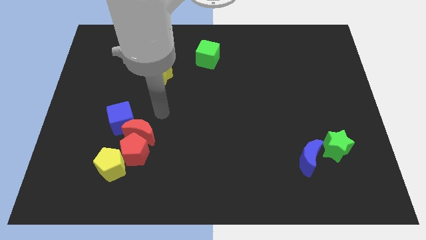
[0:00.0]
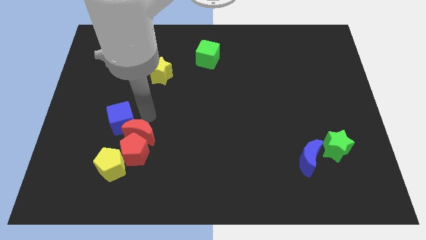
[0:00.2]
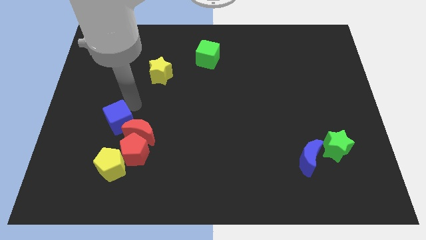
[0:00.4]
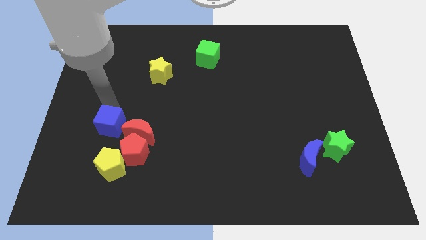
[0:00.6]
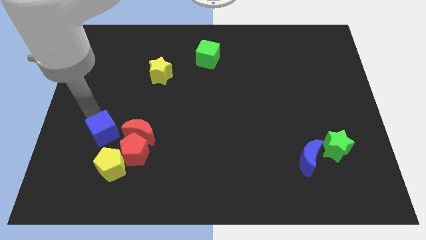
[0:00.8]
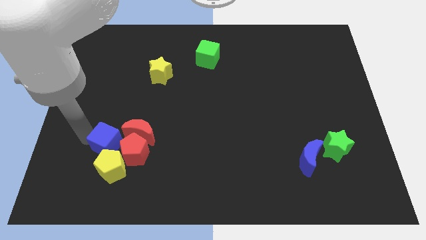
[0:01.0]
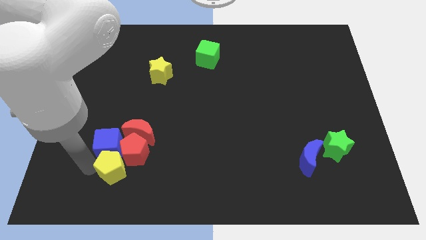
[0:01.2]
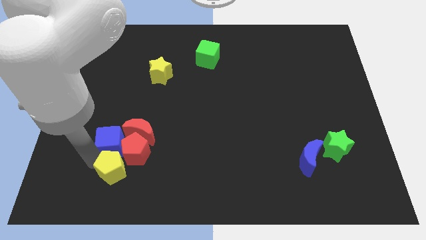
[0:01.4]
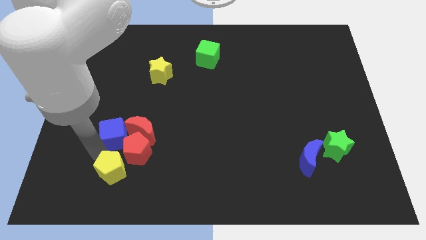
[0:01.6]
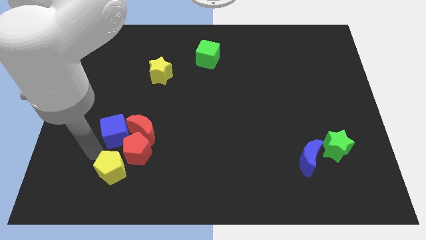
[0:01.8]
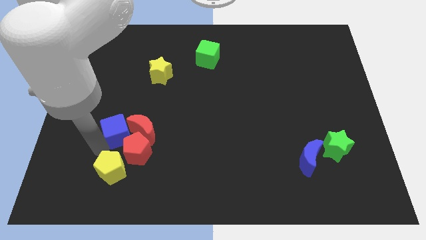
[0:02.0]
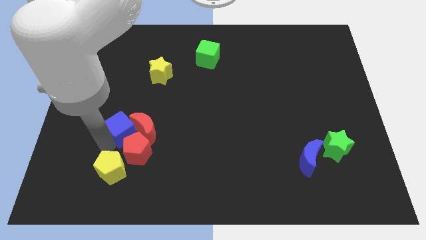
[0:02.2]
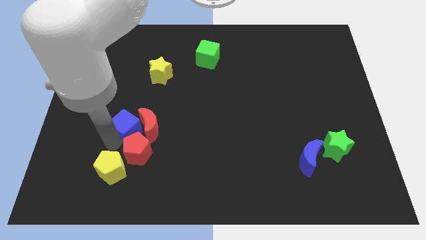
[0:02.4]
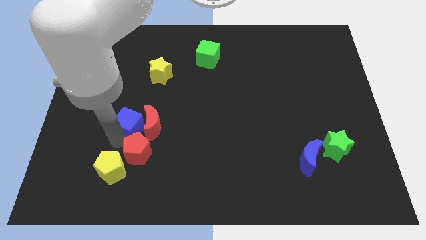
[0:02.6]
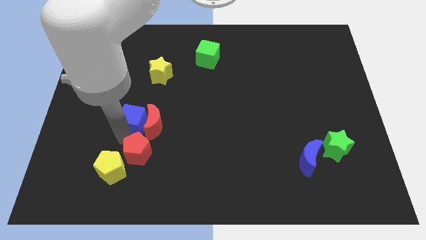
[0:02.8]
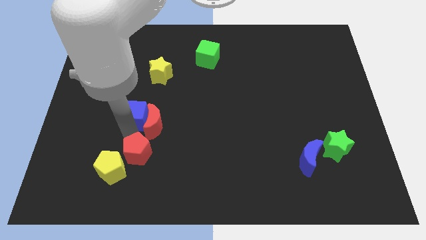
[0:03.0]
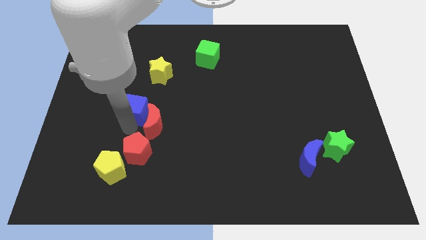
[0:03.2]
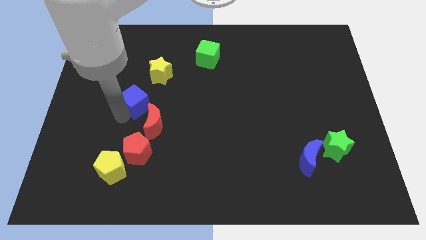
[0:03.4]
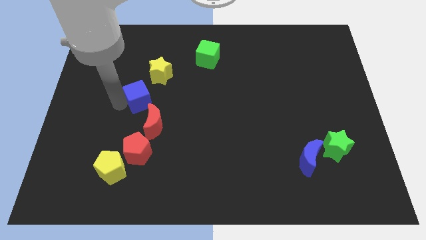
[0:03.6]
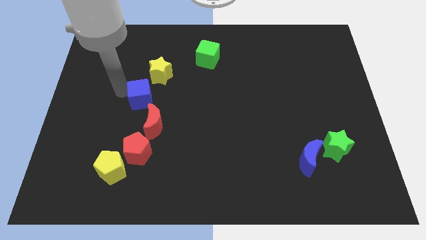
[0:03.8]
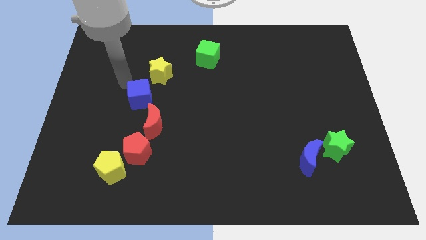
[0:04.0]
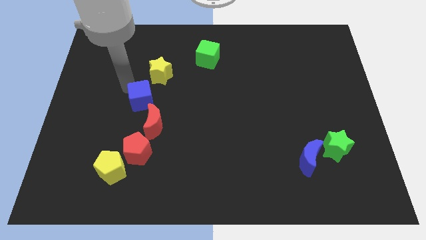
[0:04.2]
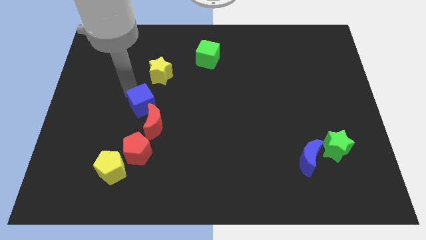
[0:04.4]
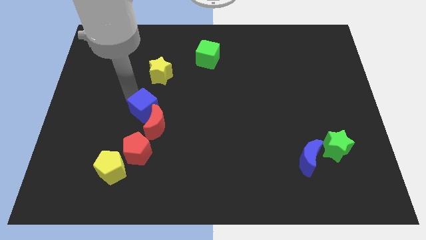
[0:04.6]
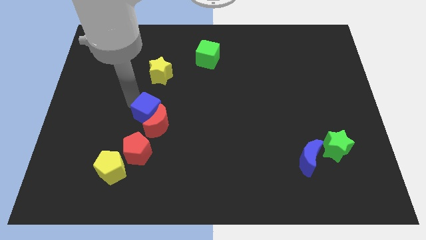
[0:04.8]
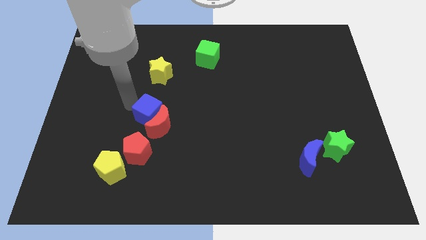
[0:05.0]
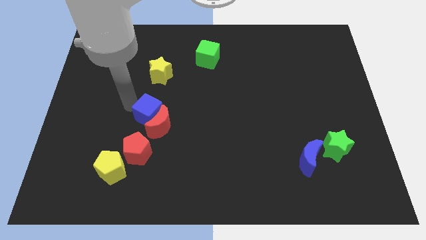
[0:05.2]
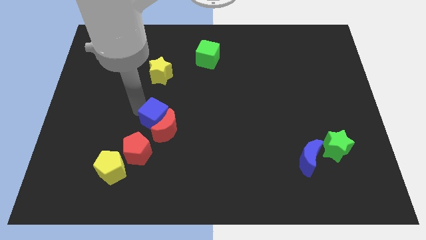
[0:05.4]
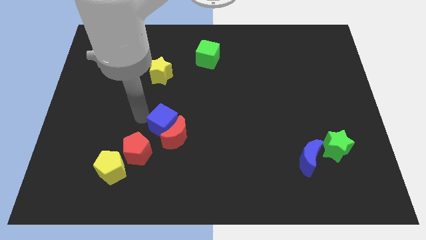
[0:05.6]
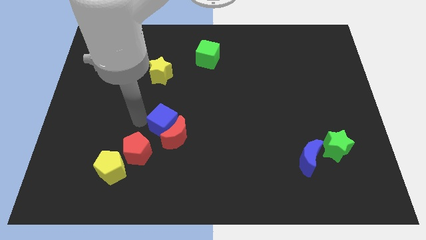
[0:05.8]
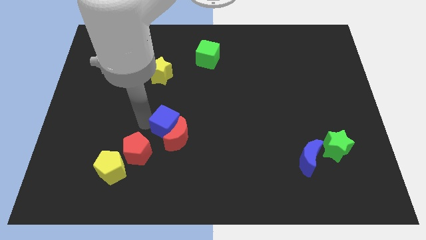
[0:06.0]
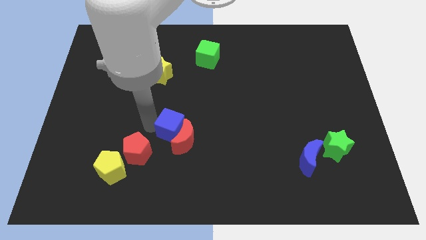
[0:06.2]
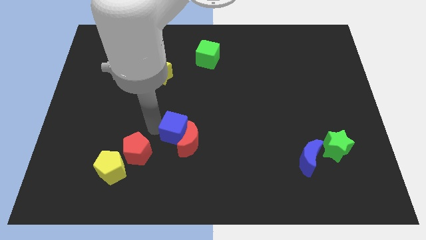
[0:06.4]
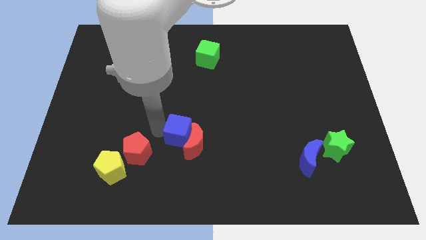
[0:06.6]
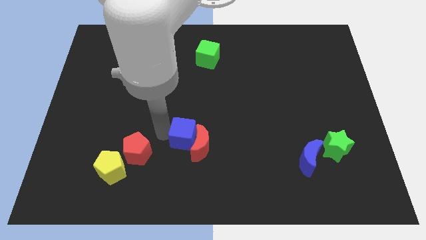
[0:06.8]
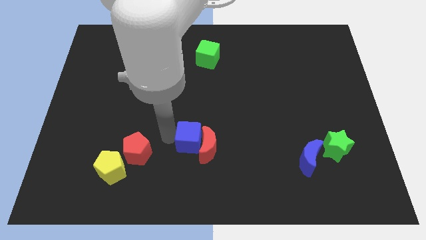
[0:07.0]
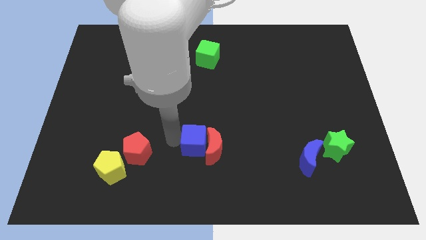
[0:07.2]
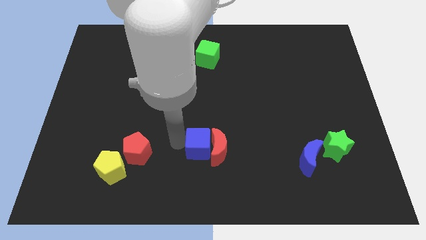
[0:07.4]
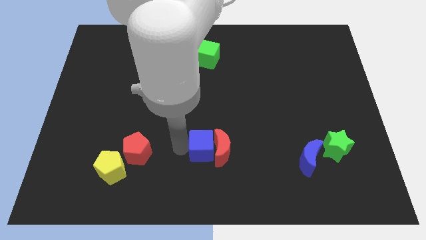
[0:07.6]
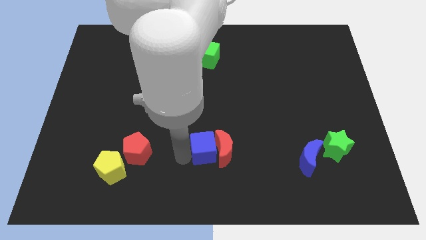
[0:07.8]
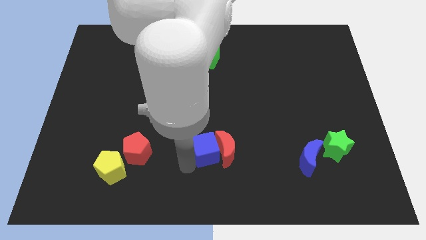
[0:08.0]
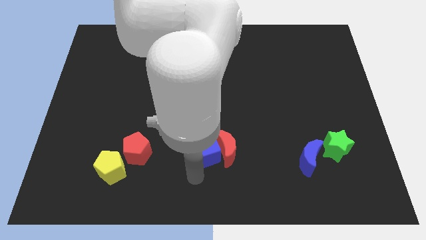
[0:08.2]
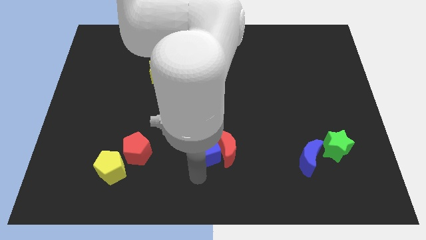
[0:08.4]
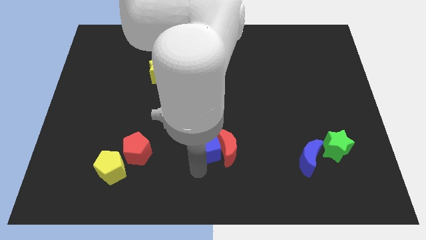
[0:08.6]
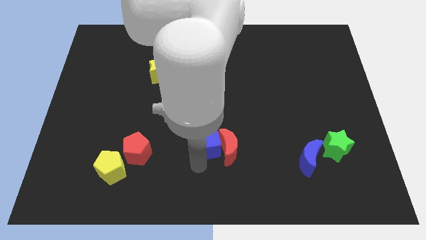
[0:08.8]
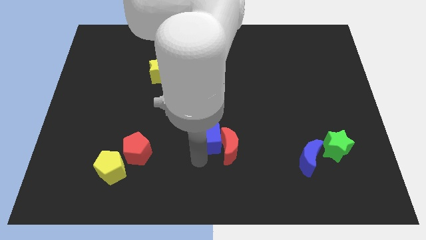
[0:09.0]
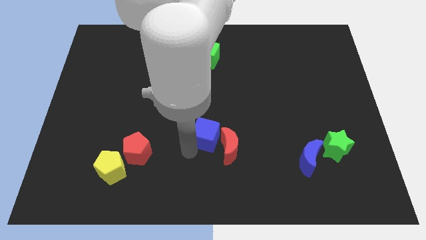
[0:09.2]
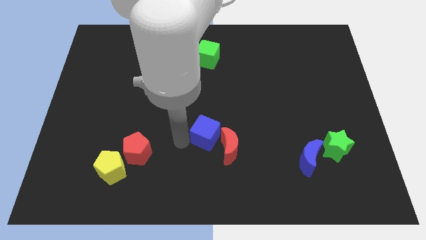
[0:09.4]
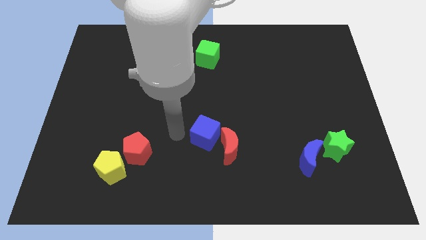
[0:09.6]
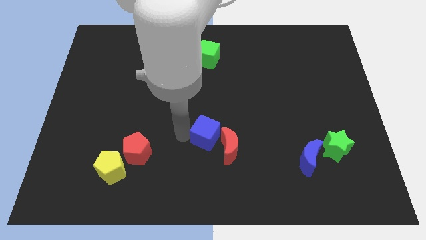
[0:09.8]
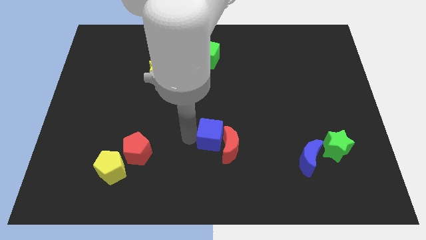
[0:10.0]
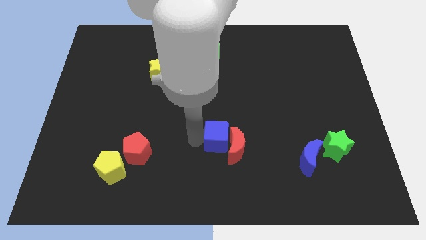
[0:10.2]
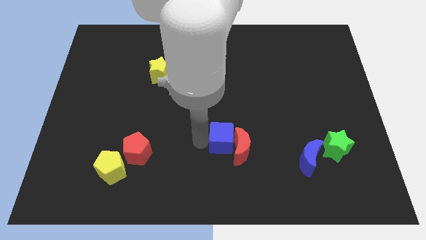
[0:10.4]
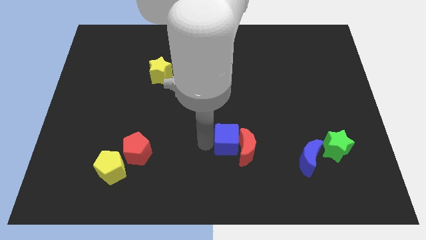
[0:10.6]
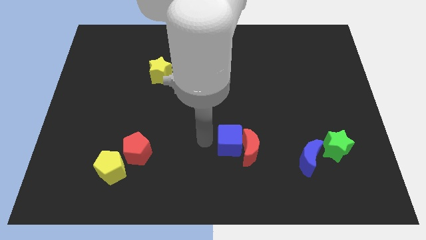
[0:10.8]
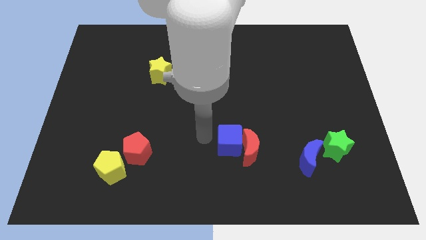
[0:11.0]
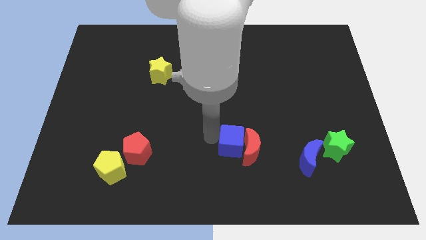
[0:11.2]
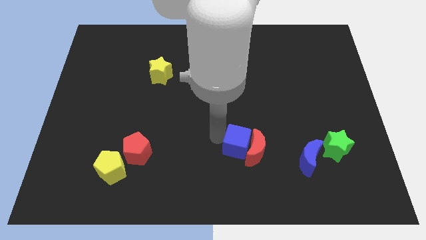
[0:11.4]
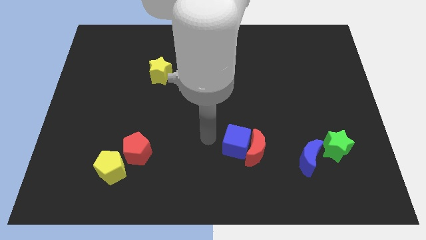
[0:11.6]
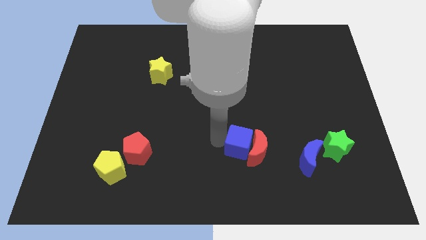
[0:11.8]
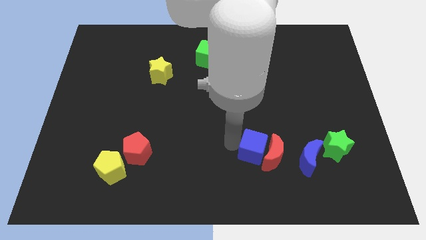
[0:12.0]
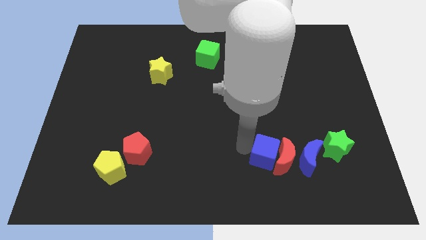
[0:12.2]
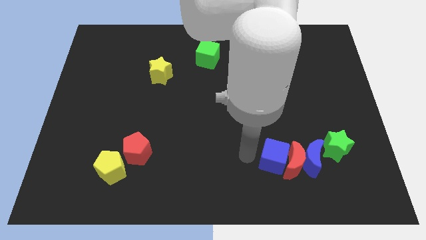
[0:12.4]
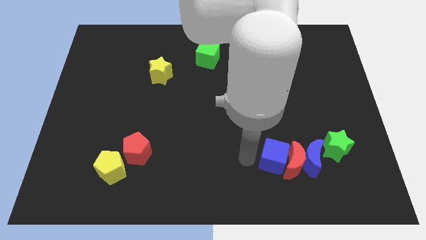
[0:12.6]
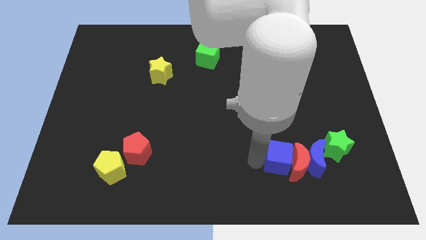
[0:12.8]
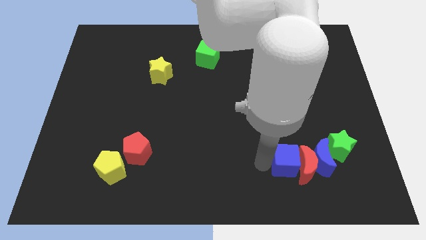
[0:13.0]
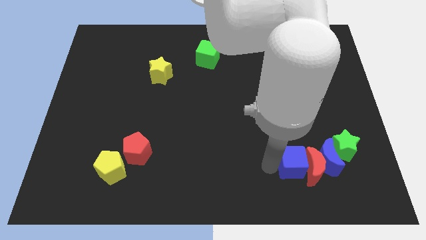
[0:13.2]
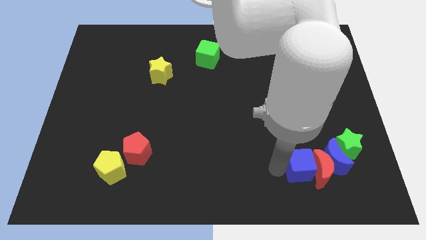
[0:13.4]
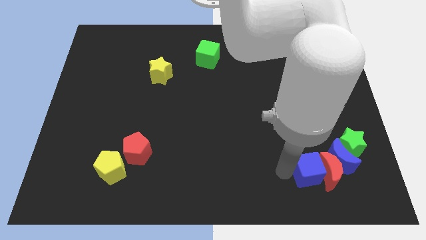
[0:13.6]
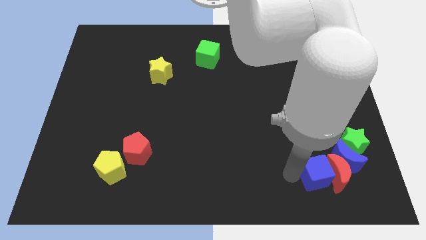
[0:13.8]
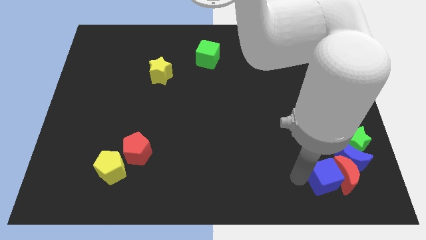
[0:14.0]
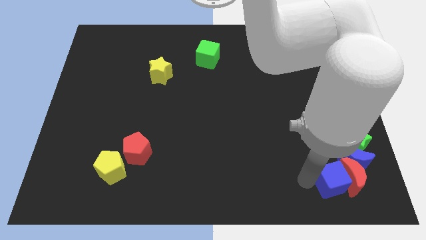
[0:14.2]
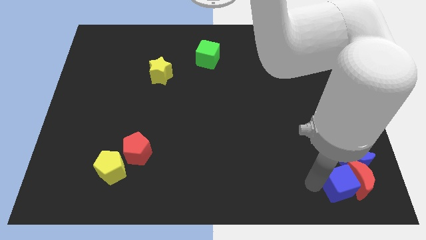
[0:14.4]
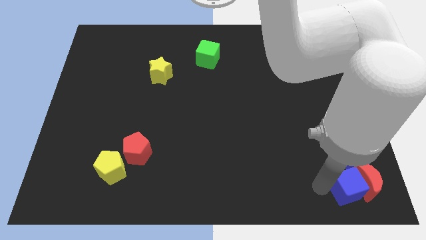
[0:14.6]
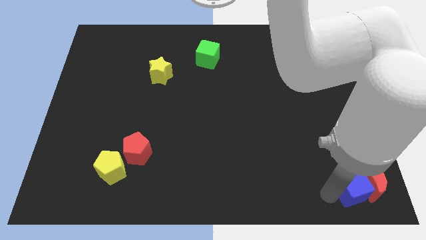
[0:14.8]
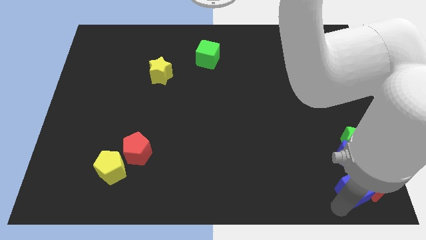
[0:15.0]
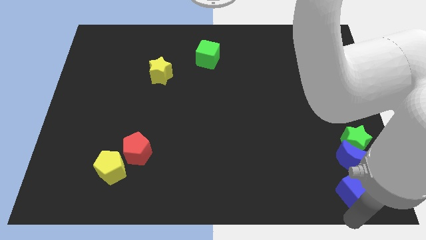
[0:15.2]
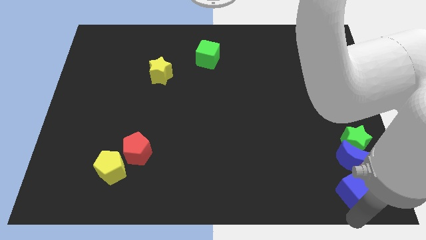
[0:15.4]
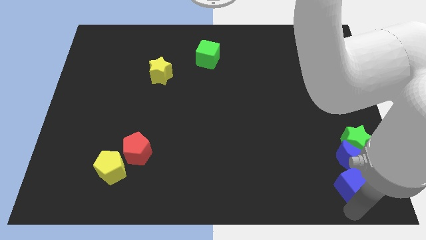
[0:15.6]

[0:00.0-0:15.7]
put the blue cube next to the blue moon
